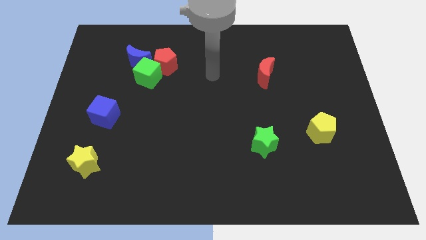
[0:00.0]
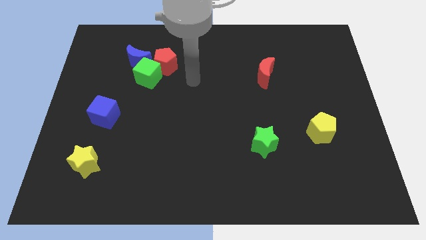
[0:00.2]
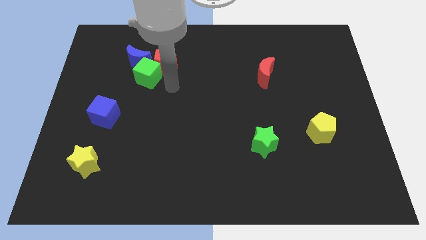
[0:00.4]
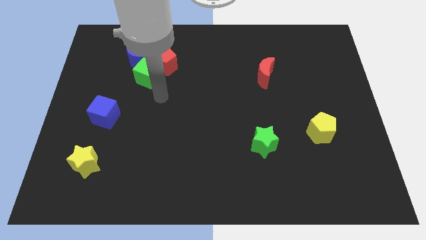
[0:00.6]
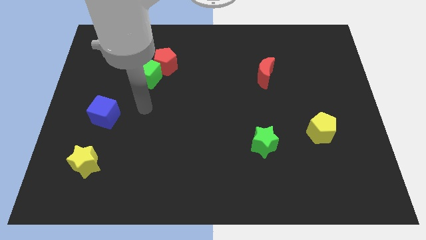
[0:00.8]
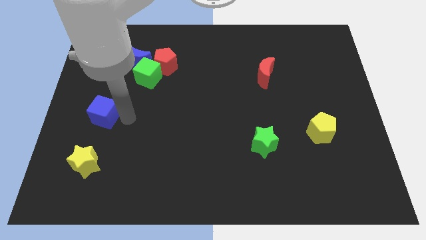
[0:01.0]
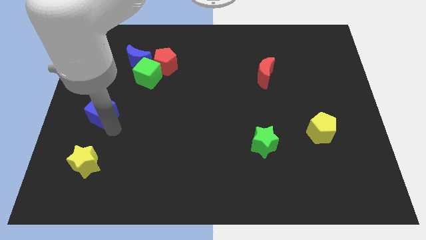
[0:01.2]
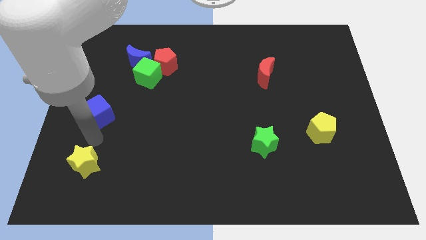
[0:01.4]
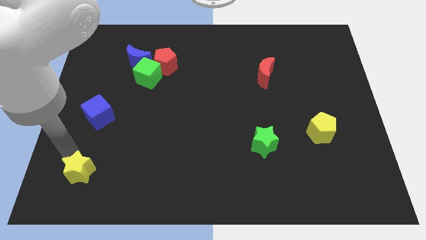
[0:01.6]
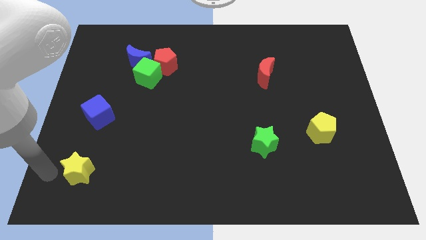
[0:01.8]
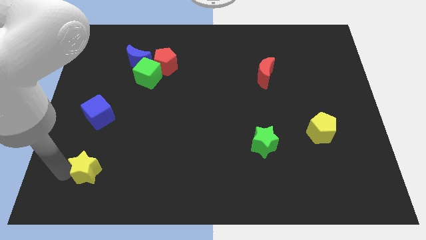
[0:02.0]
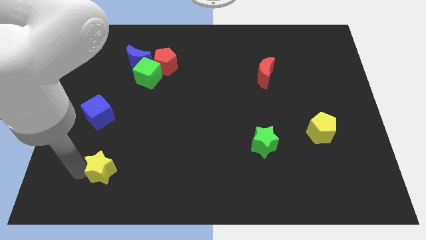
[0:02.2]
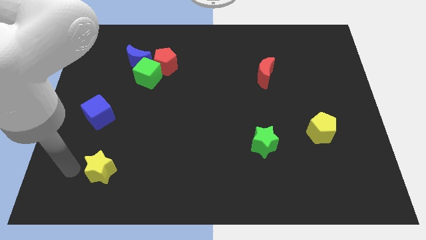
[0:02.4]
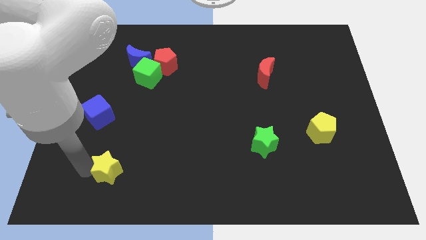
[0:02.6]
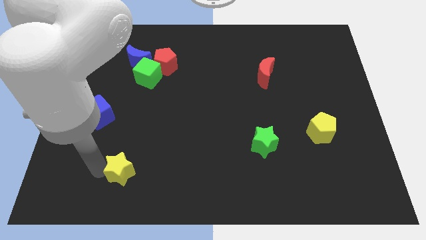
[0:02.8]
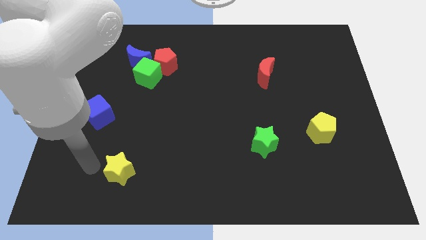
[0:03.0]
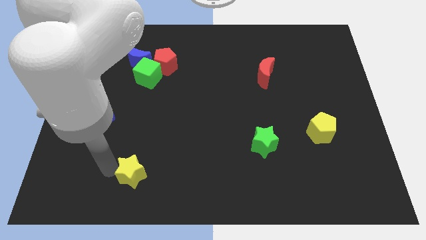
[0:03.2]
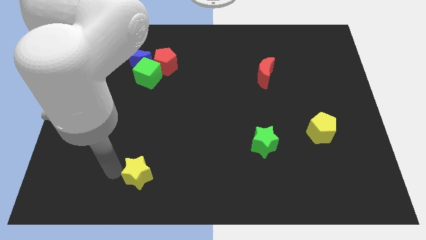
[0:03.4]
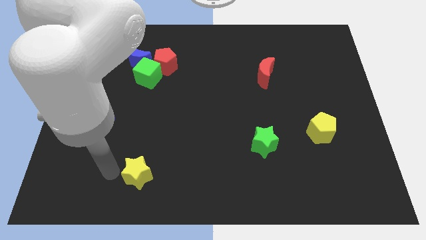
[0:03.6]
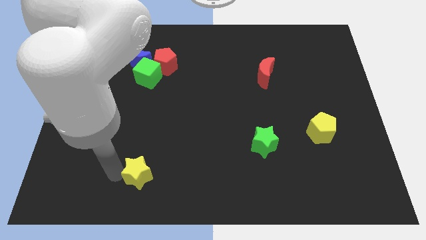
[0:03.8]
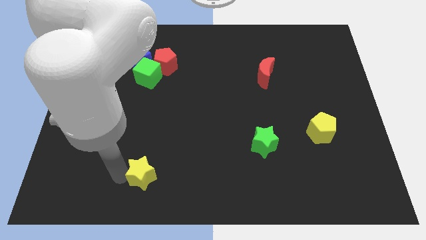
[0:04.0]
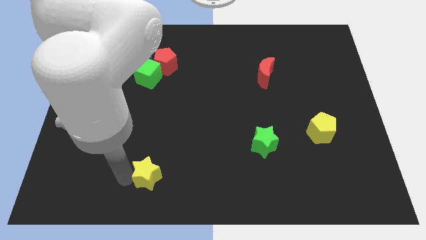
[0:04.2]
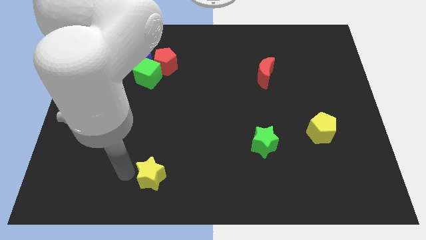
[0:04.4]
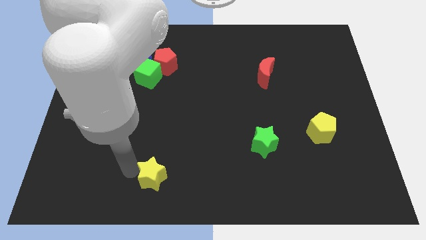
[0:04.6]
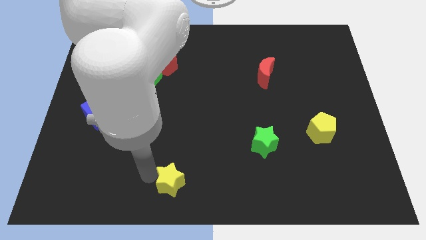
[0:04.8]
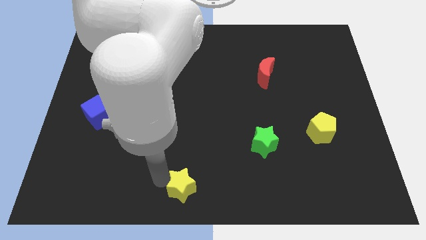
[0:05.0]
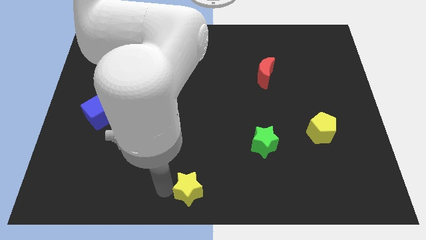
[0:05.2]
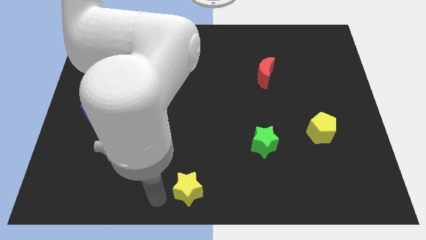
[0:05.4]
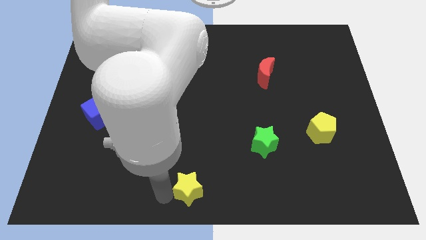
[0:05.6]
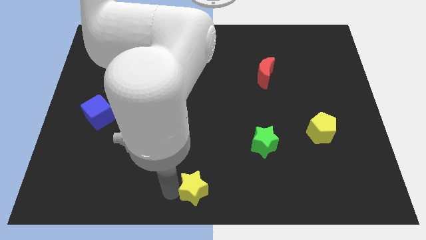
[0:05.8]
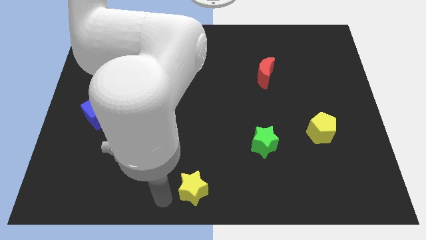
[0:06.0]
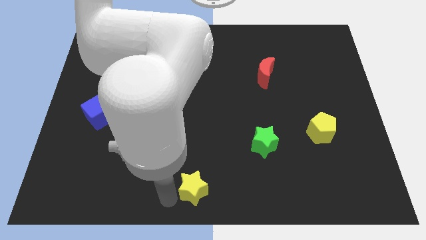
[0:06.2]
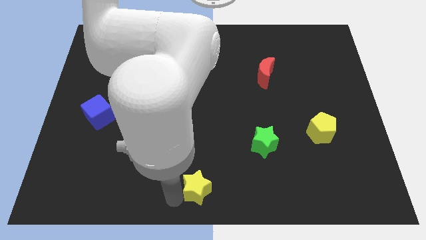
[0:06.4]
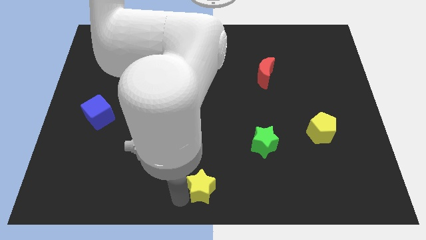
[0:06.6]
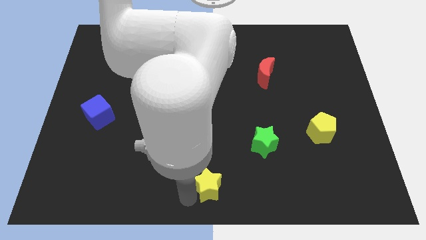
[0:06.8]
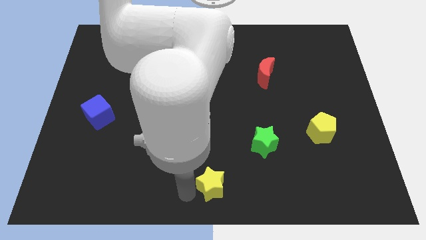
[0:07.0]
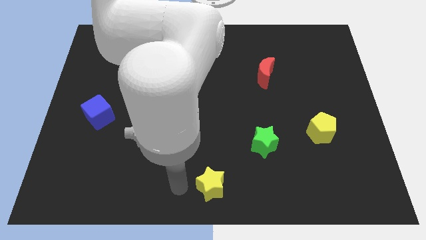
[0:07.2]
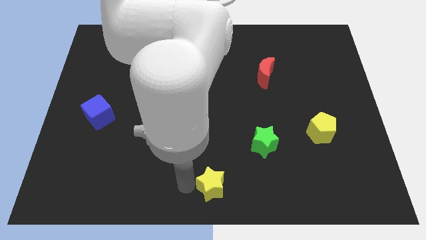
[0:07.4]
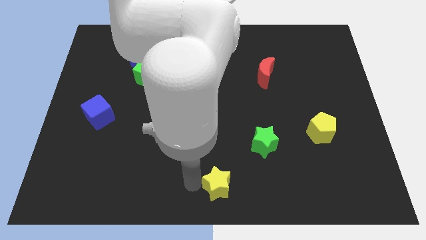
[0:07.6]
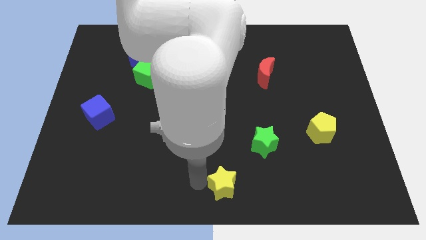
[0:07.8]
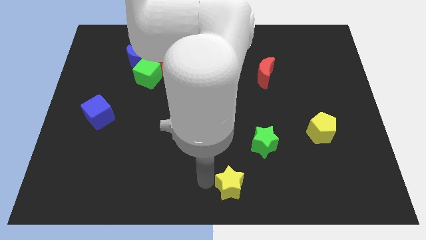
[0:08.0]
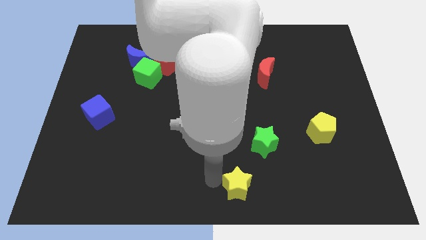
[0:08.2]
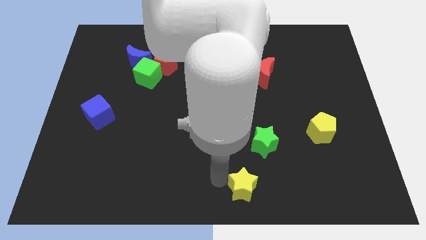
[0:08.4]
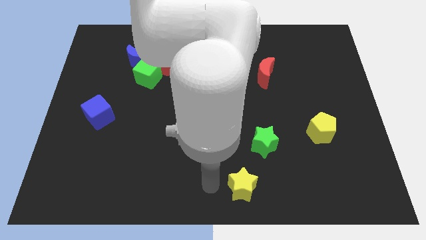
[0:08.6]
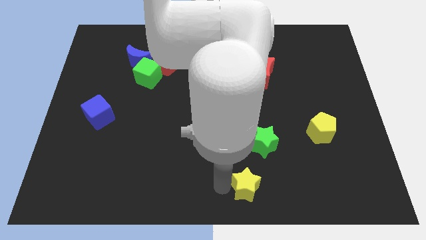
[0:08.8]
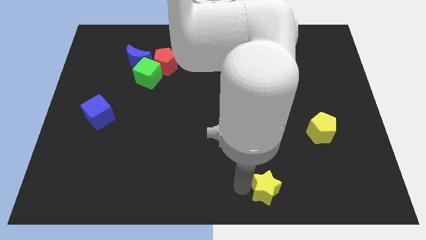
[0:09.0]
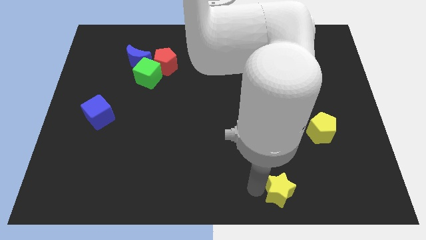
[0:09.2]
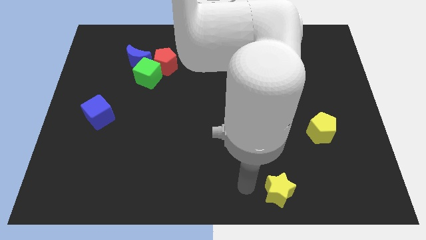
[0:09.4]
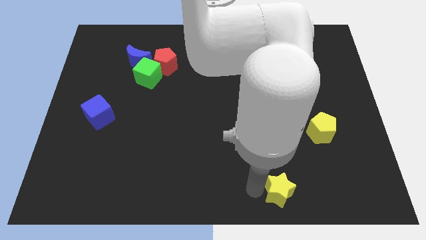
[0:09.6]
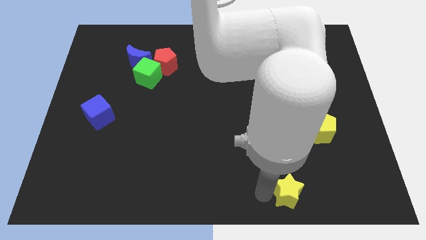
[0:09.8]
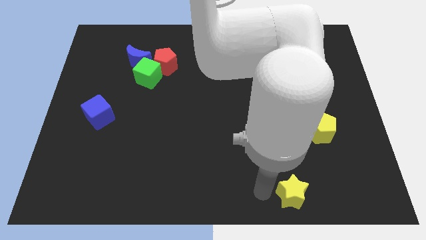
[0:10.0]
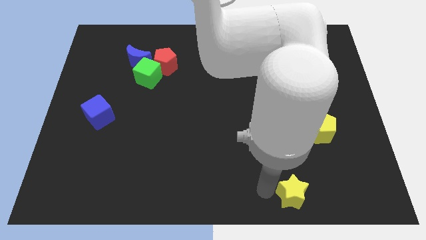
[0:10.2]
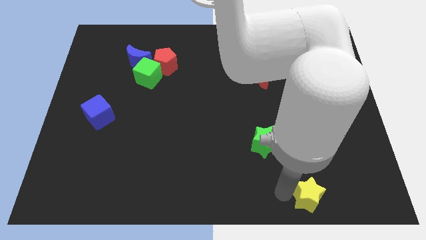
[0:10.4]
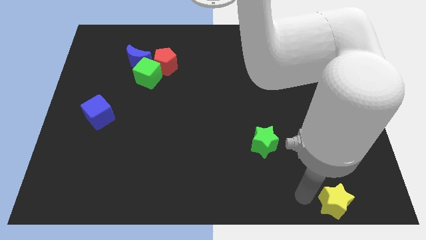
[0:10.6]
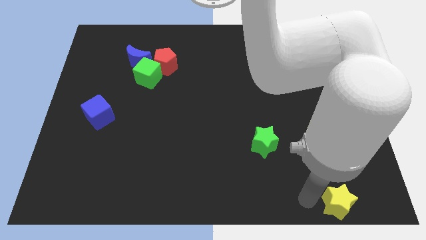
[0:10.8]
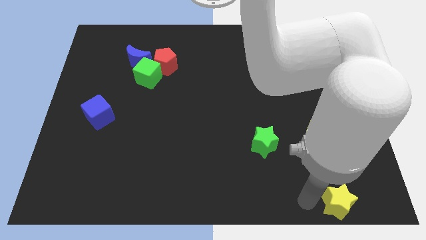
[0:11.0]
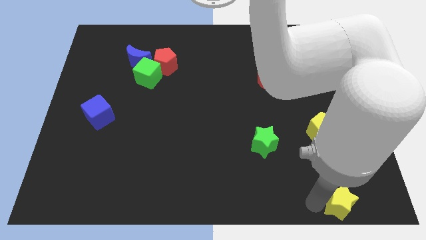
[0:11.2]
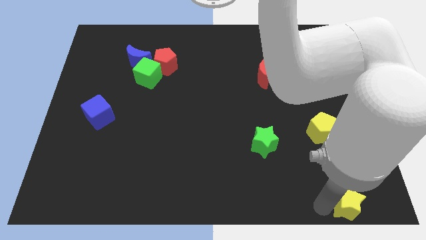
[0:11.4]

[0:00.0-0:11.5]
push the yellow star to the bottom right of the board

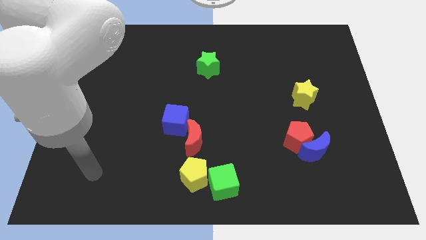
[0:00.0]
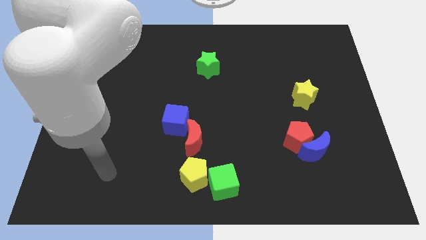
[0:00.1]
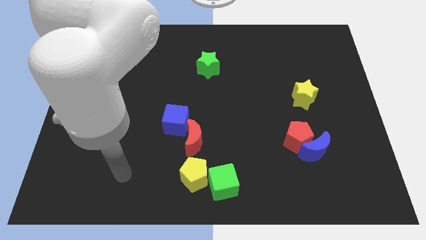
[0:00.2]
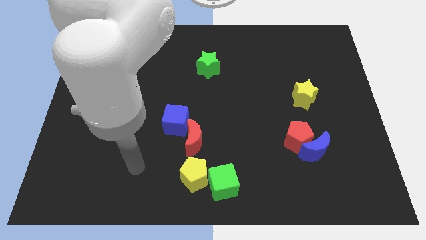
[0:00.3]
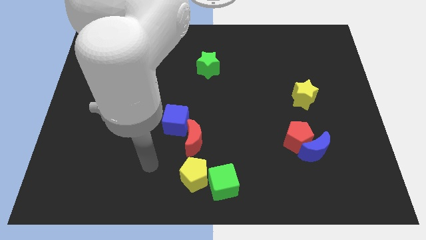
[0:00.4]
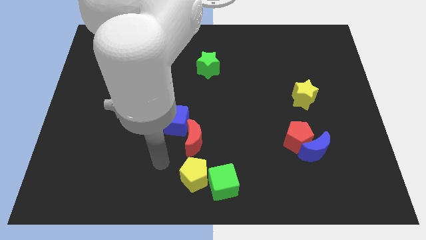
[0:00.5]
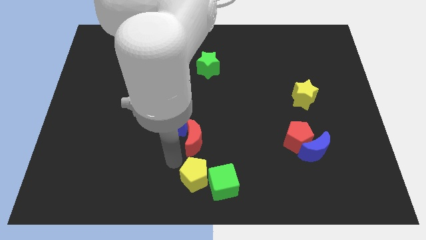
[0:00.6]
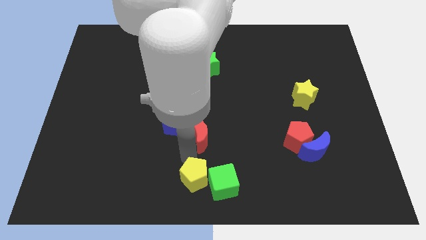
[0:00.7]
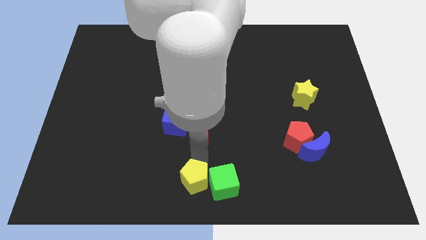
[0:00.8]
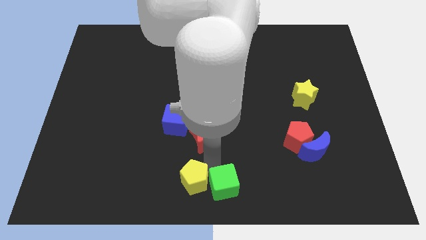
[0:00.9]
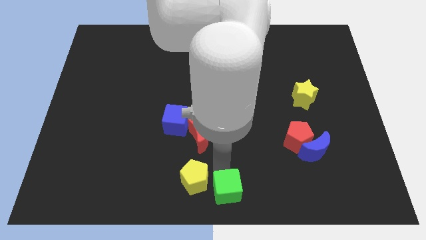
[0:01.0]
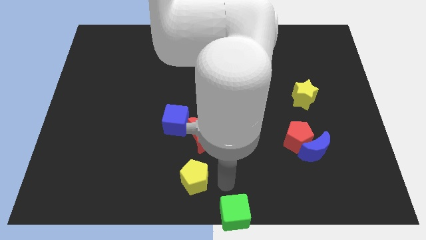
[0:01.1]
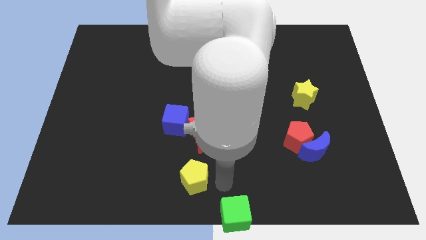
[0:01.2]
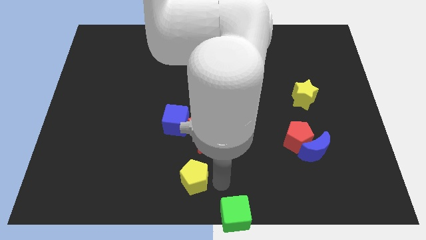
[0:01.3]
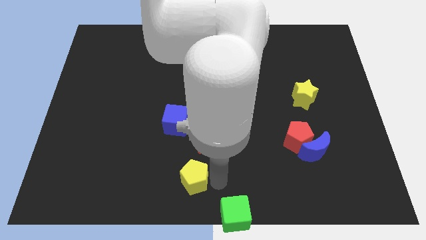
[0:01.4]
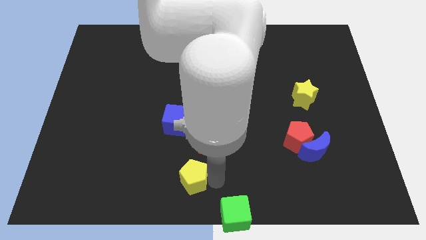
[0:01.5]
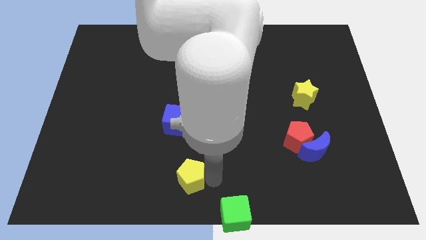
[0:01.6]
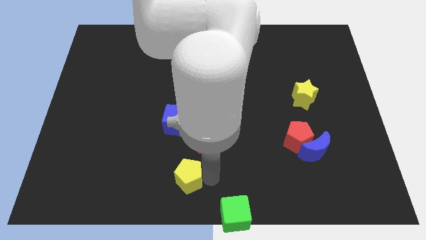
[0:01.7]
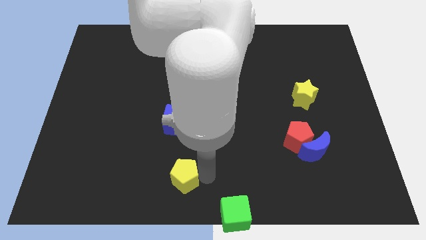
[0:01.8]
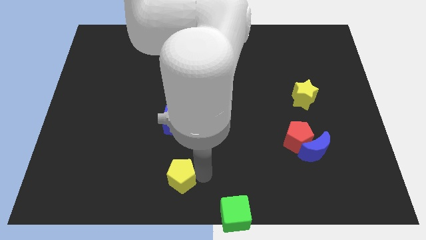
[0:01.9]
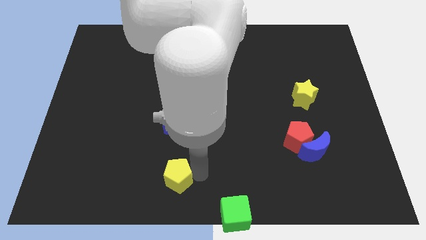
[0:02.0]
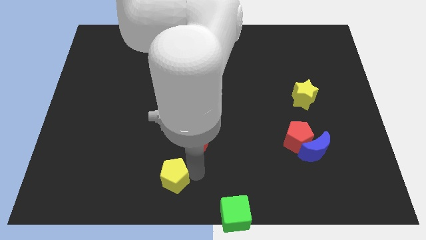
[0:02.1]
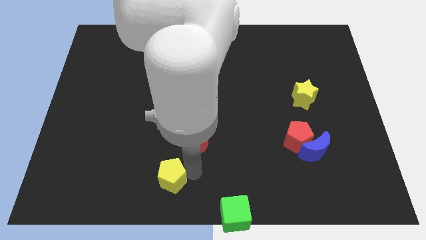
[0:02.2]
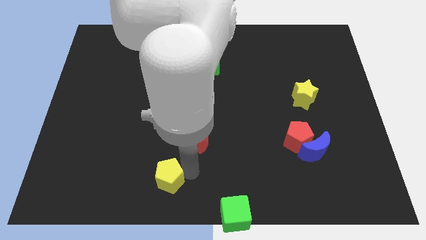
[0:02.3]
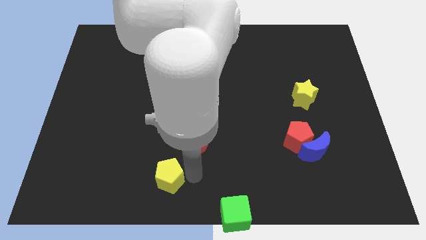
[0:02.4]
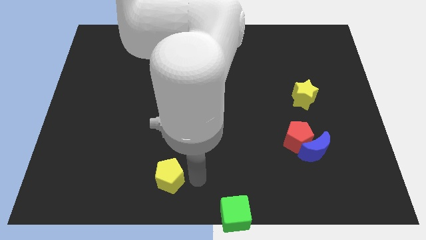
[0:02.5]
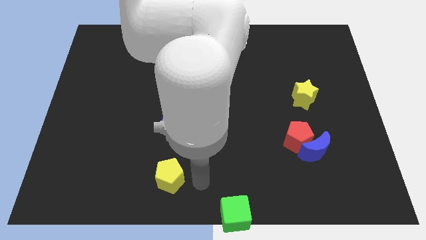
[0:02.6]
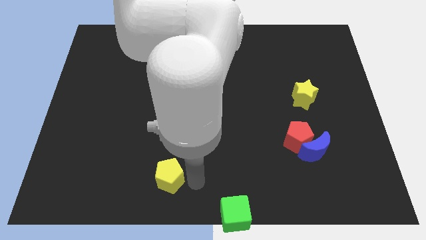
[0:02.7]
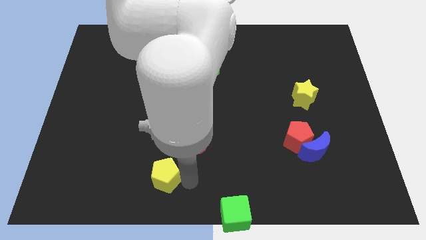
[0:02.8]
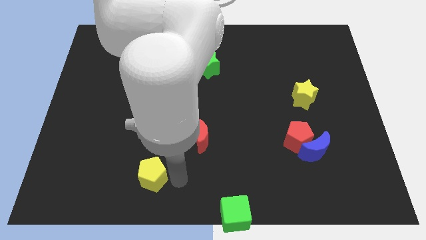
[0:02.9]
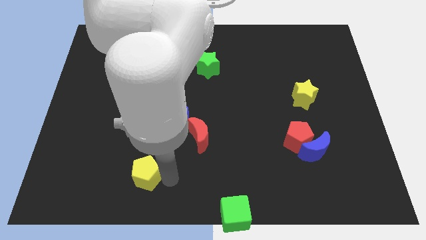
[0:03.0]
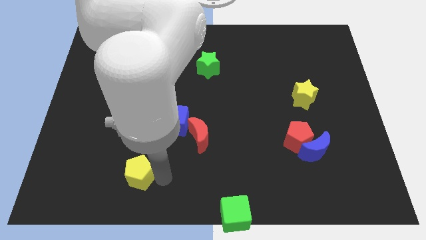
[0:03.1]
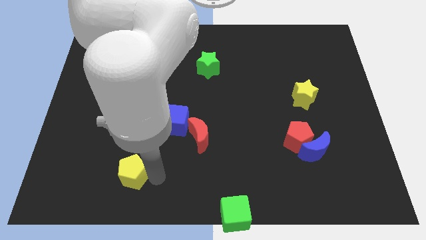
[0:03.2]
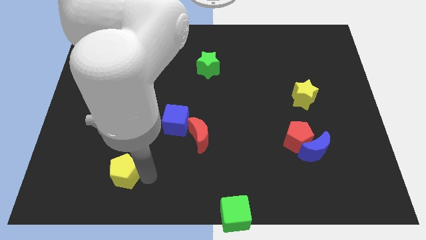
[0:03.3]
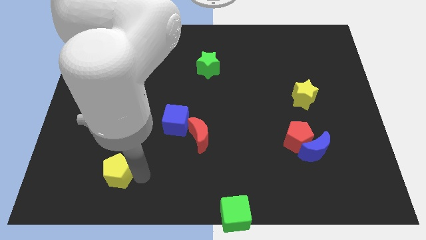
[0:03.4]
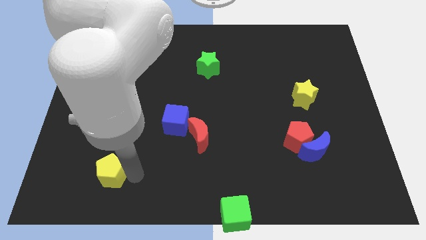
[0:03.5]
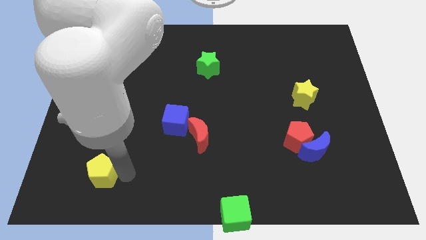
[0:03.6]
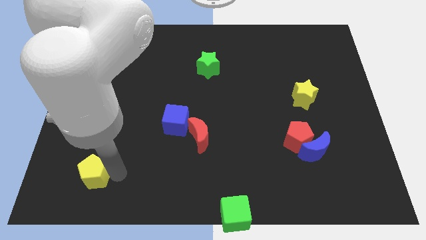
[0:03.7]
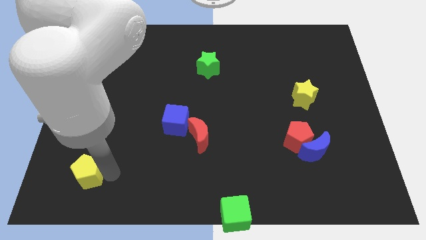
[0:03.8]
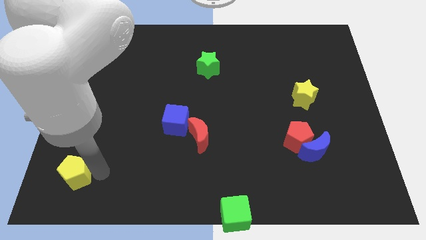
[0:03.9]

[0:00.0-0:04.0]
move the yellow pentagon to the bottom left
